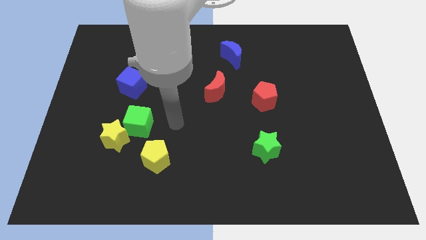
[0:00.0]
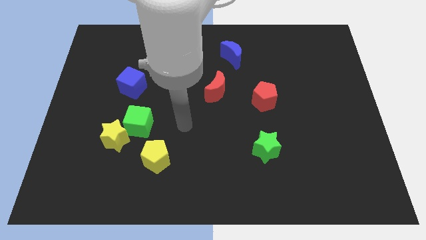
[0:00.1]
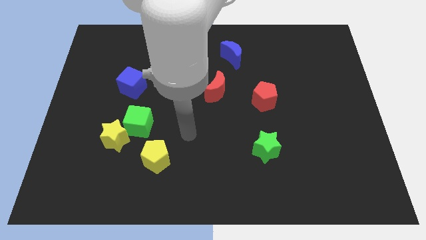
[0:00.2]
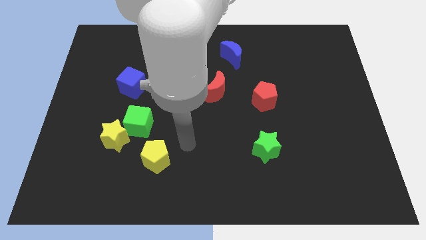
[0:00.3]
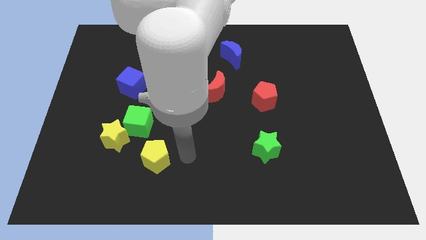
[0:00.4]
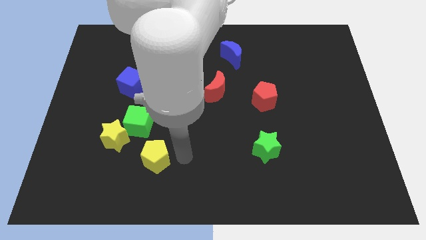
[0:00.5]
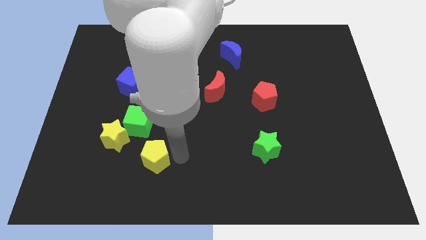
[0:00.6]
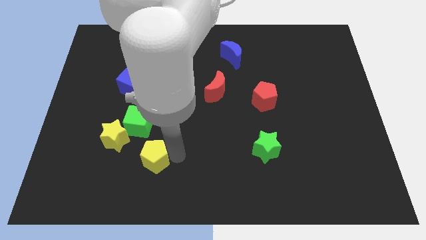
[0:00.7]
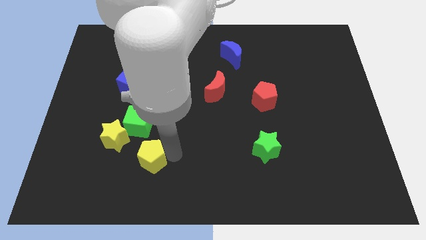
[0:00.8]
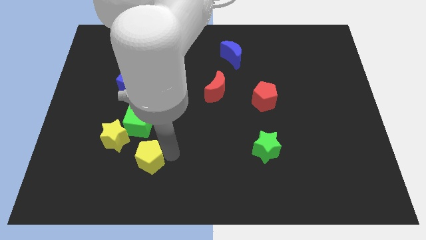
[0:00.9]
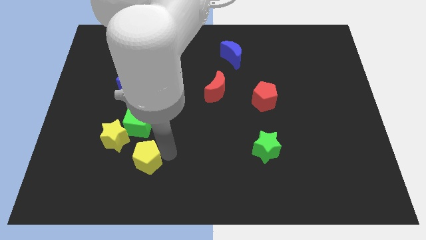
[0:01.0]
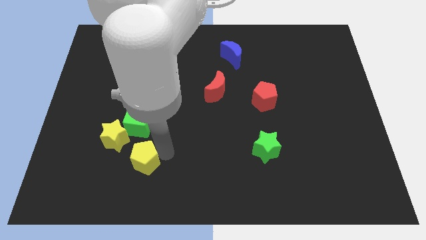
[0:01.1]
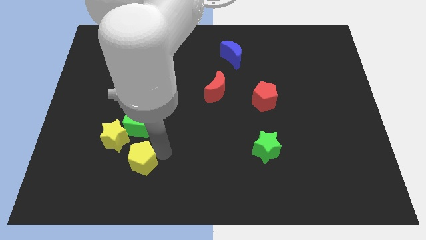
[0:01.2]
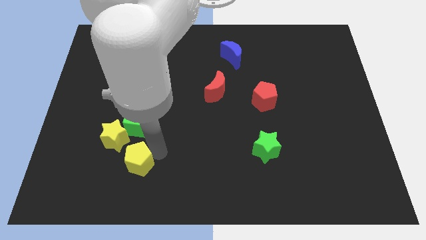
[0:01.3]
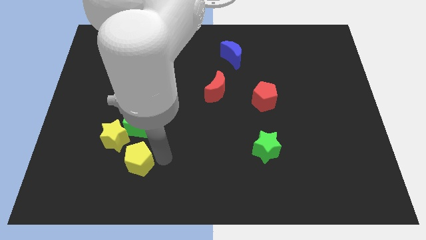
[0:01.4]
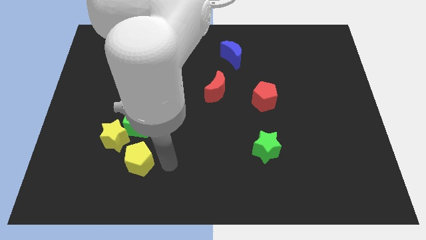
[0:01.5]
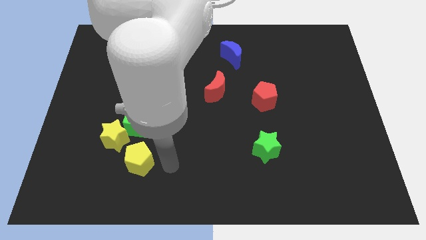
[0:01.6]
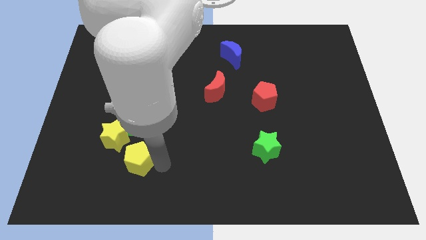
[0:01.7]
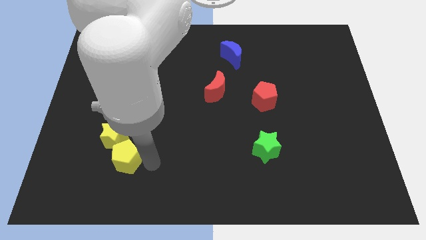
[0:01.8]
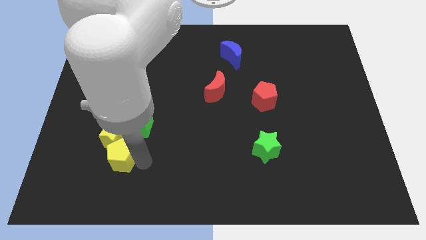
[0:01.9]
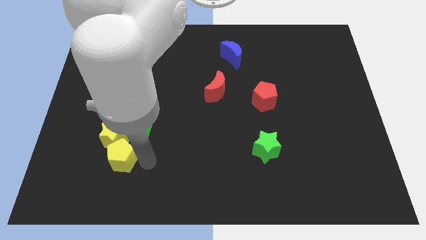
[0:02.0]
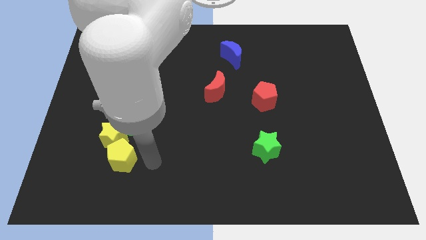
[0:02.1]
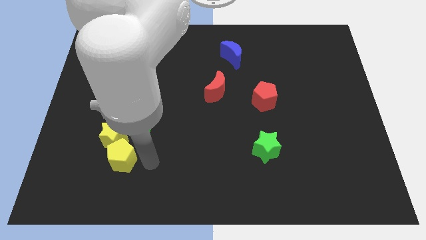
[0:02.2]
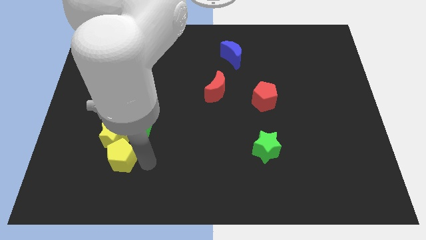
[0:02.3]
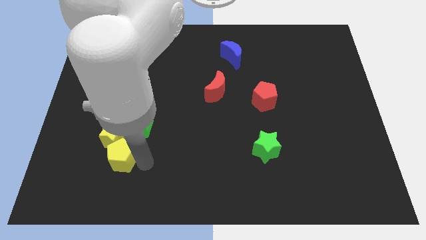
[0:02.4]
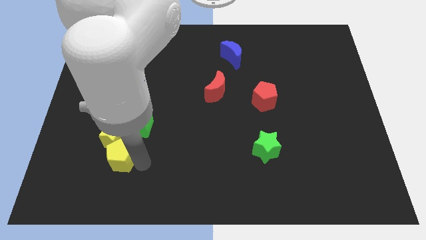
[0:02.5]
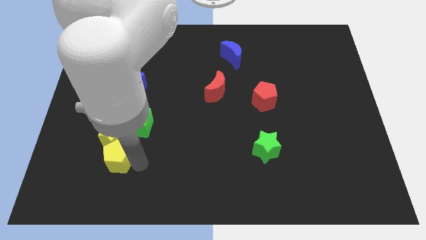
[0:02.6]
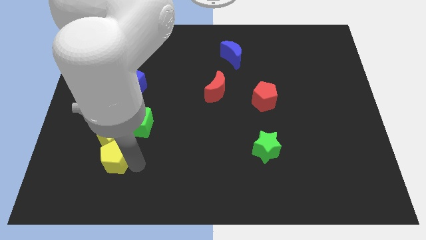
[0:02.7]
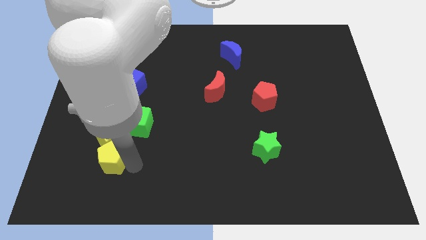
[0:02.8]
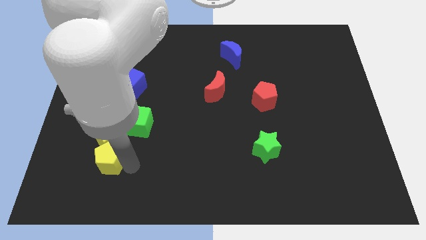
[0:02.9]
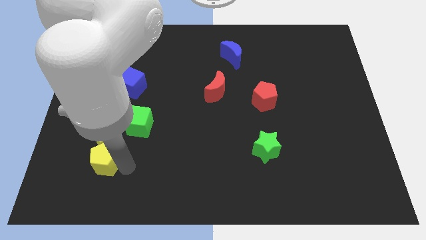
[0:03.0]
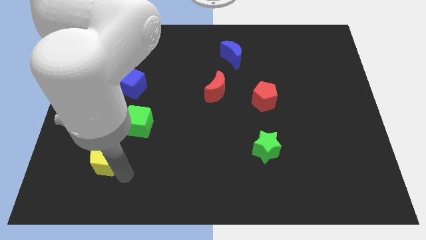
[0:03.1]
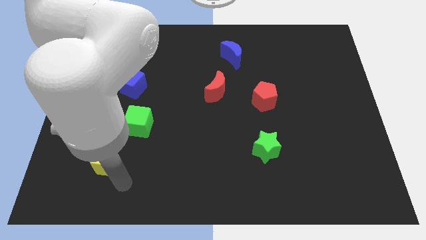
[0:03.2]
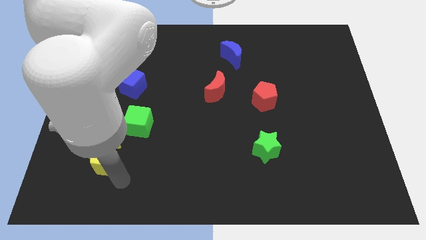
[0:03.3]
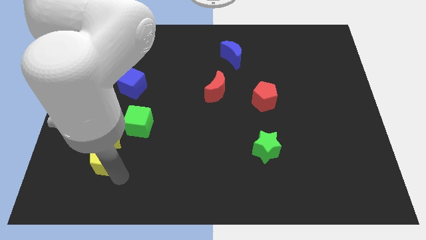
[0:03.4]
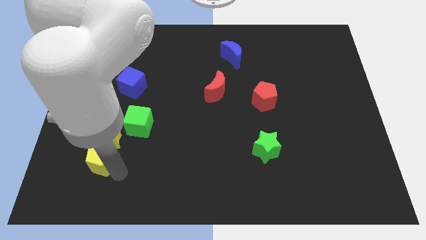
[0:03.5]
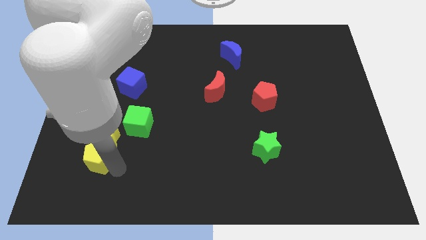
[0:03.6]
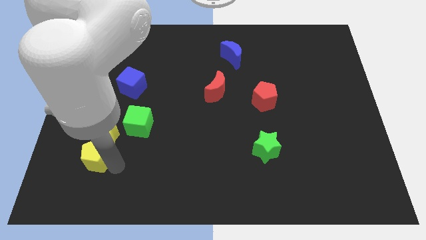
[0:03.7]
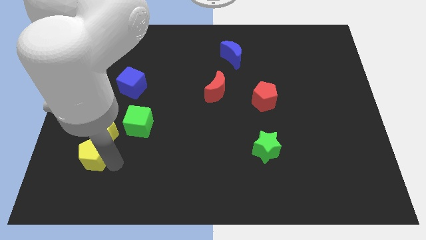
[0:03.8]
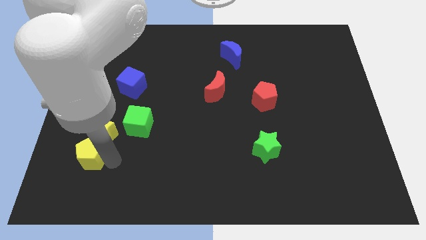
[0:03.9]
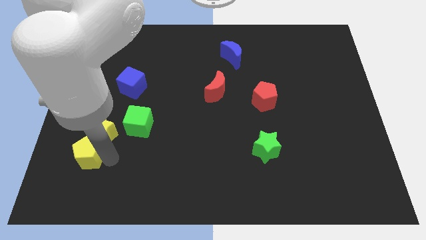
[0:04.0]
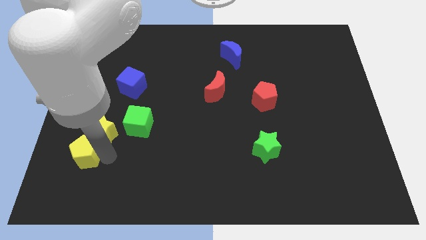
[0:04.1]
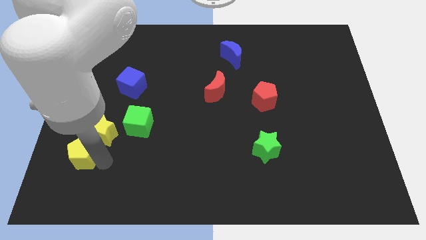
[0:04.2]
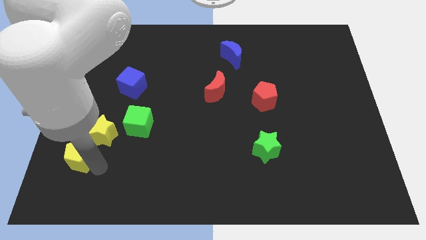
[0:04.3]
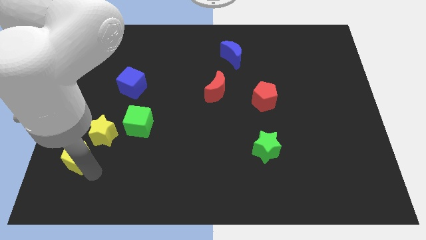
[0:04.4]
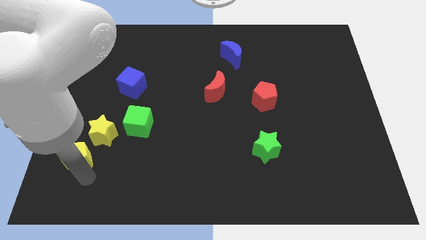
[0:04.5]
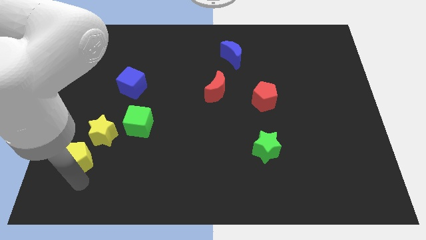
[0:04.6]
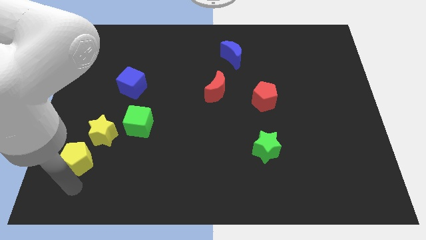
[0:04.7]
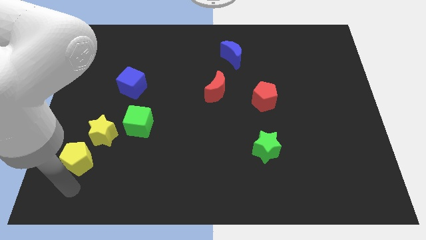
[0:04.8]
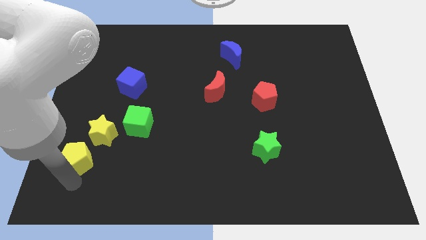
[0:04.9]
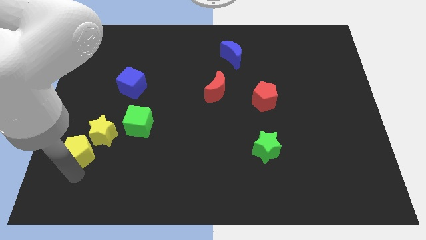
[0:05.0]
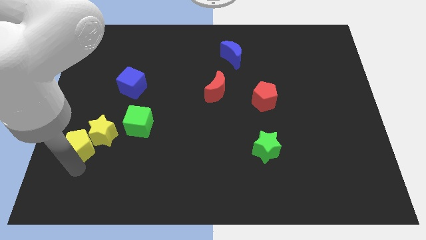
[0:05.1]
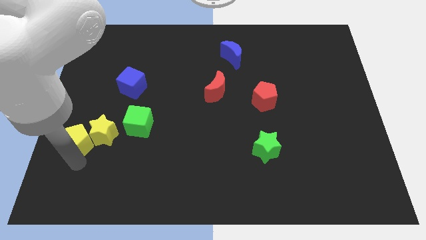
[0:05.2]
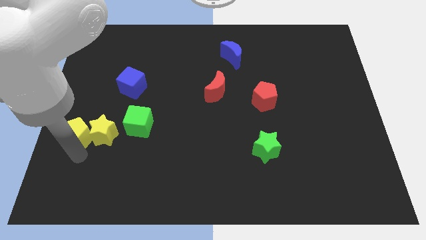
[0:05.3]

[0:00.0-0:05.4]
move the yellow pentagon to the left side of the board

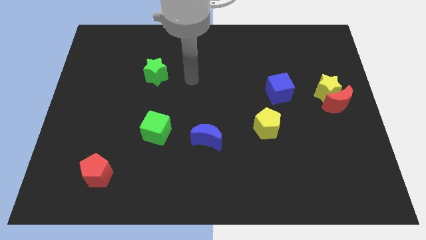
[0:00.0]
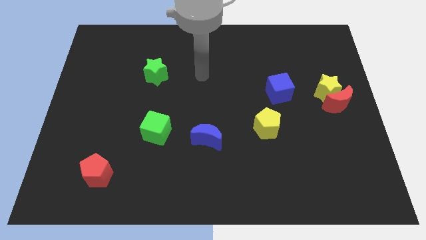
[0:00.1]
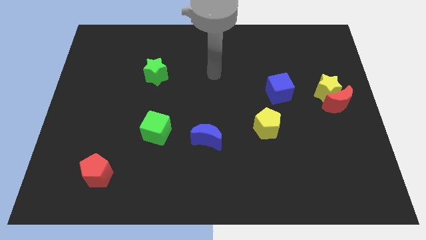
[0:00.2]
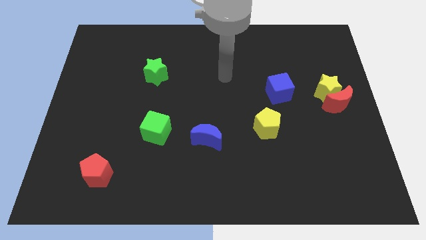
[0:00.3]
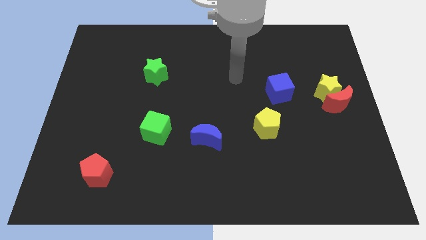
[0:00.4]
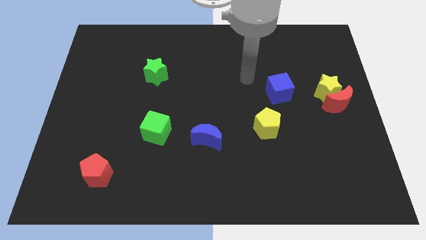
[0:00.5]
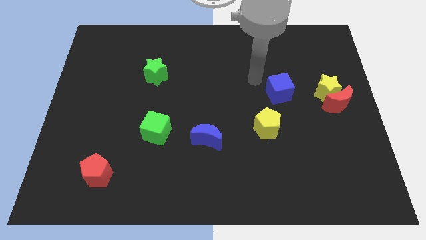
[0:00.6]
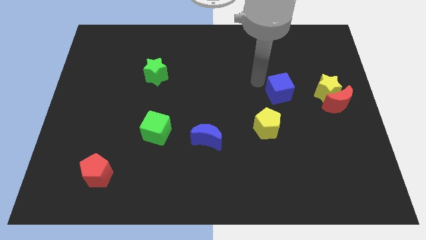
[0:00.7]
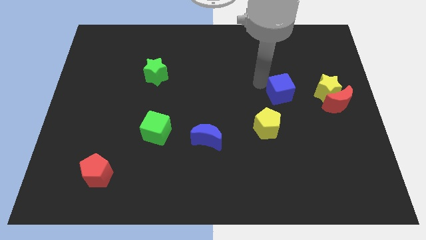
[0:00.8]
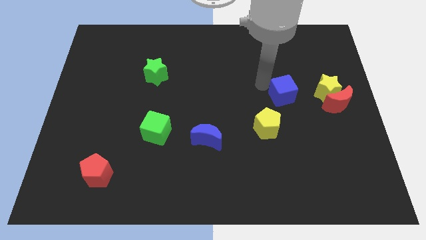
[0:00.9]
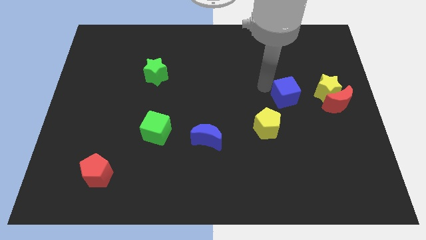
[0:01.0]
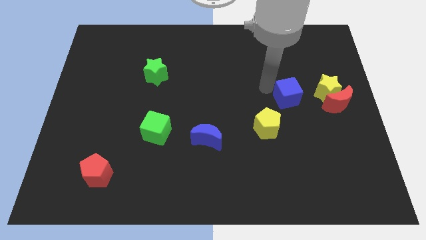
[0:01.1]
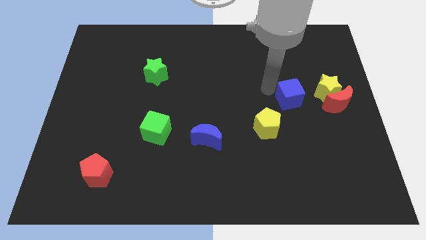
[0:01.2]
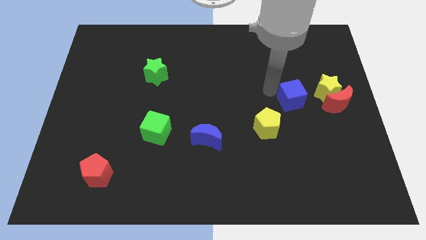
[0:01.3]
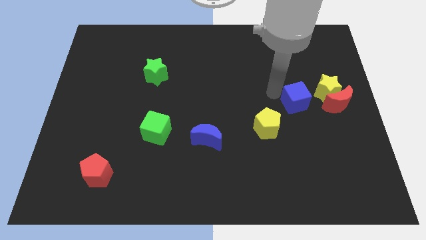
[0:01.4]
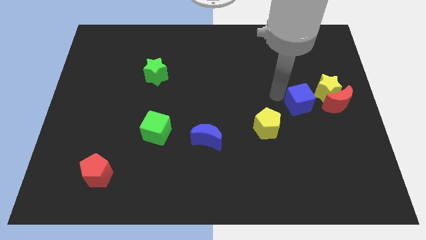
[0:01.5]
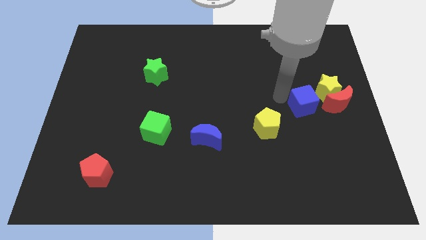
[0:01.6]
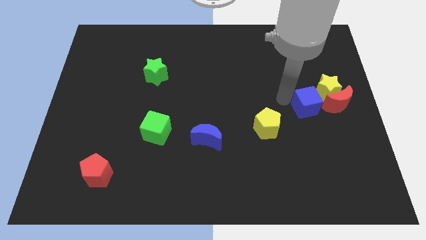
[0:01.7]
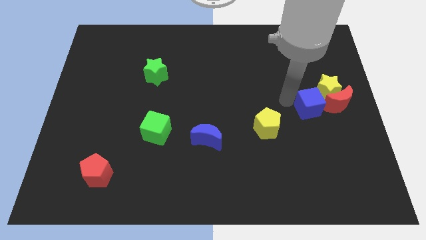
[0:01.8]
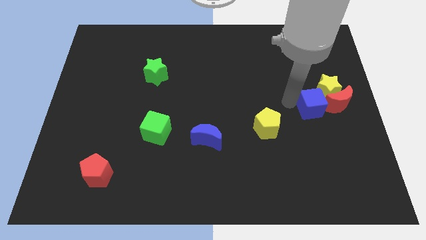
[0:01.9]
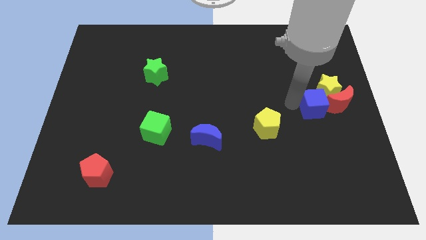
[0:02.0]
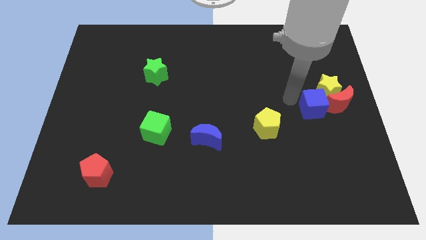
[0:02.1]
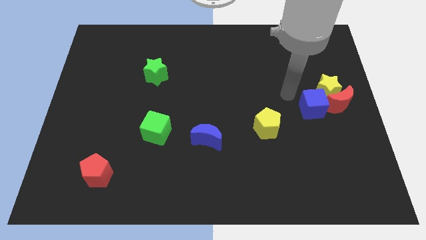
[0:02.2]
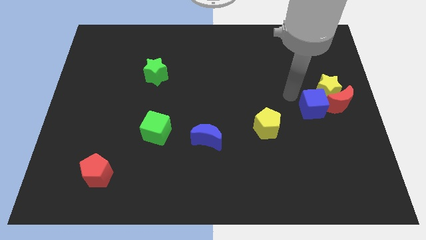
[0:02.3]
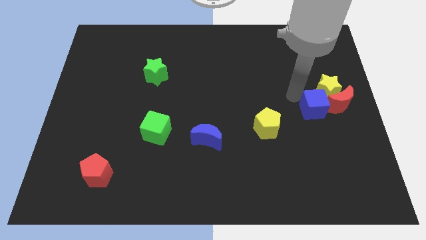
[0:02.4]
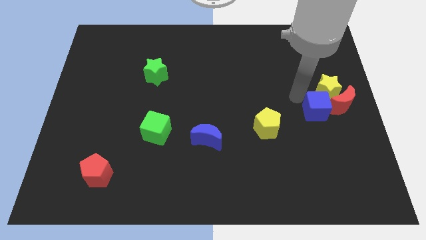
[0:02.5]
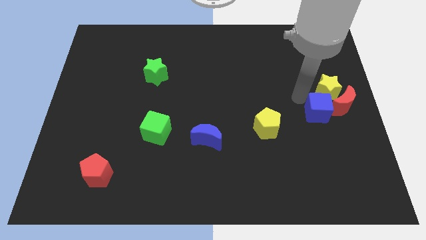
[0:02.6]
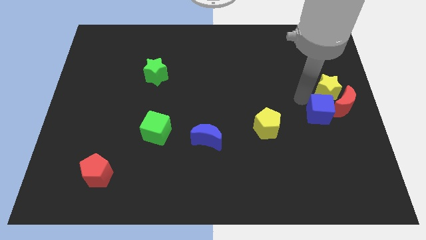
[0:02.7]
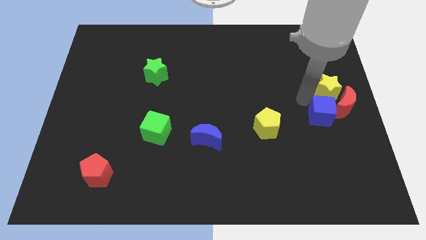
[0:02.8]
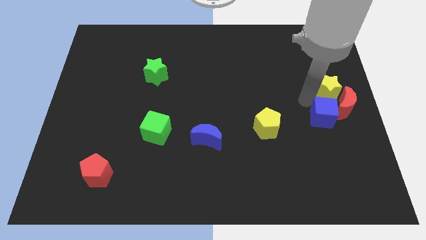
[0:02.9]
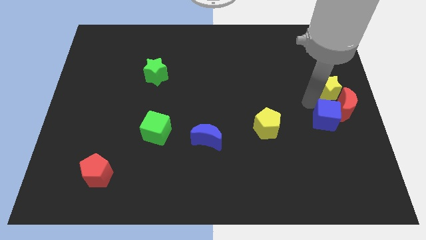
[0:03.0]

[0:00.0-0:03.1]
push the blue cube to the right side of the board
